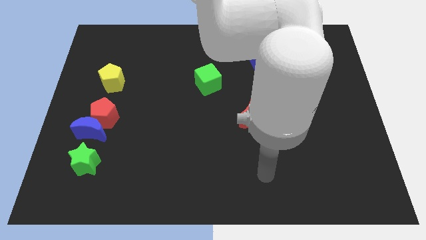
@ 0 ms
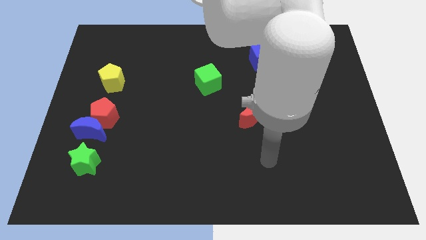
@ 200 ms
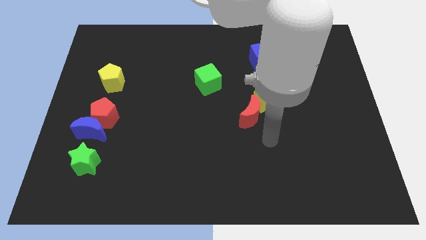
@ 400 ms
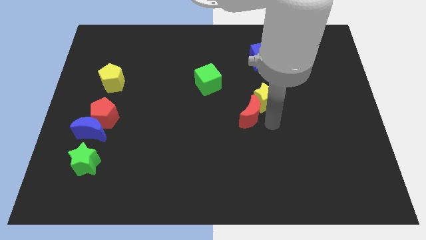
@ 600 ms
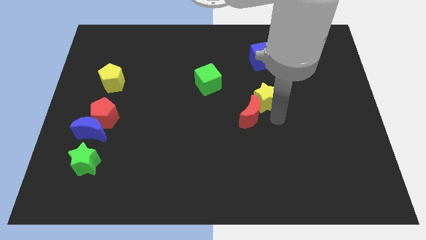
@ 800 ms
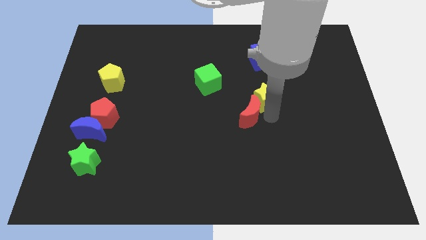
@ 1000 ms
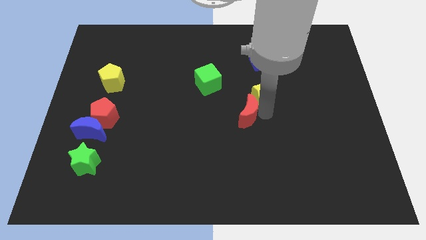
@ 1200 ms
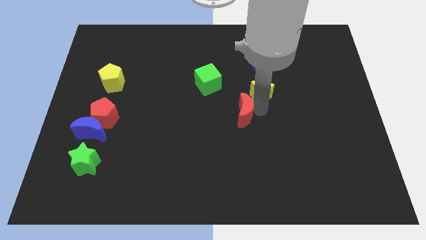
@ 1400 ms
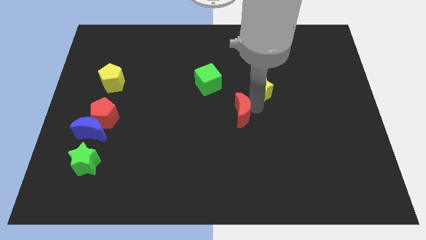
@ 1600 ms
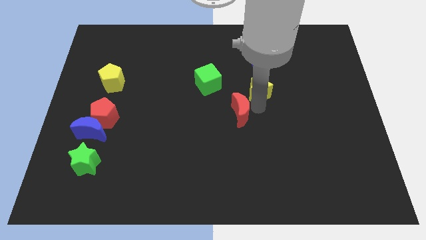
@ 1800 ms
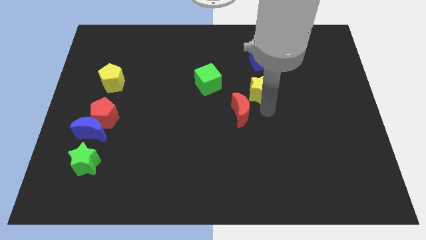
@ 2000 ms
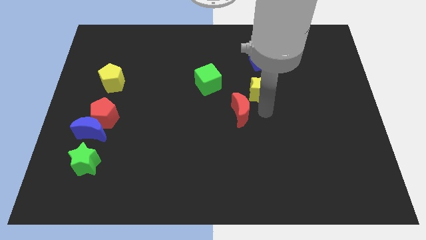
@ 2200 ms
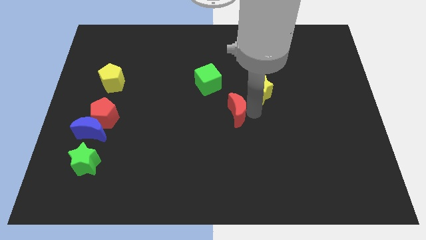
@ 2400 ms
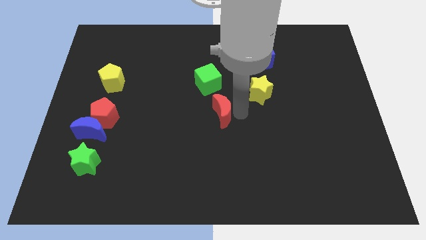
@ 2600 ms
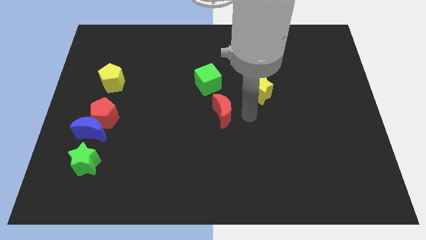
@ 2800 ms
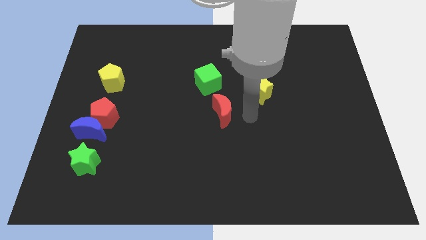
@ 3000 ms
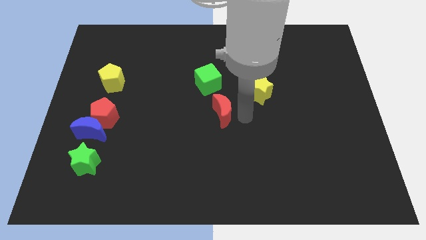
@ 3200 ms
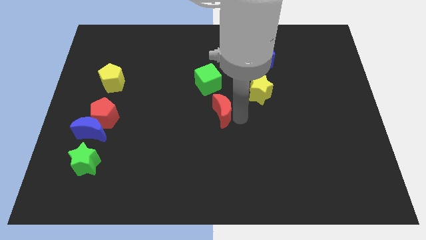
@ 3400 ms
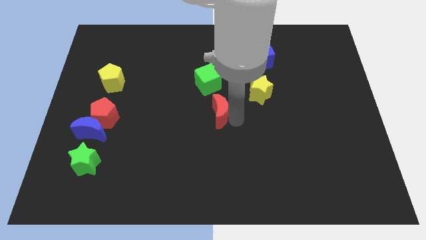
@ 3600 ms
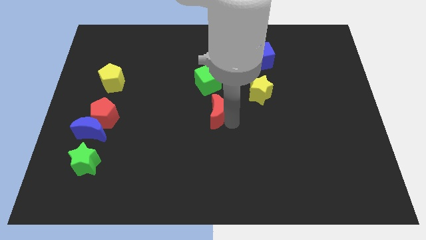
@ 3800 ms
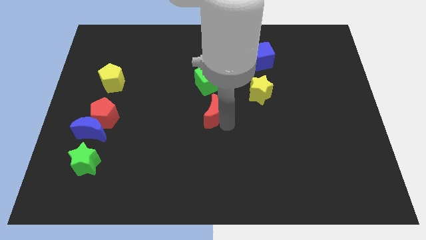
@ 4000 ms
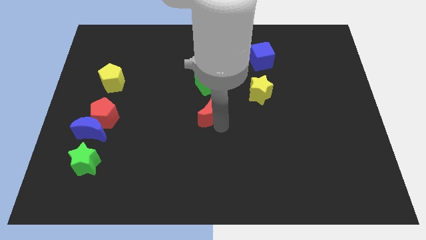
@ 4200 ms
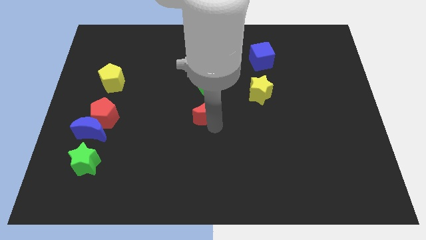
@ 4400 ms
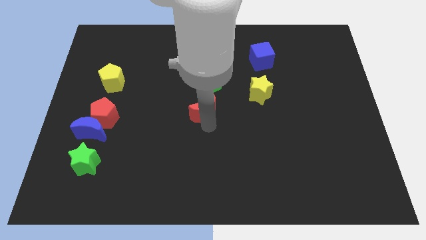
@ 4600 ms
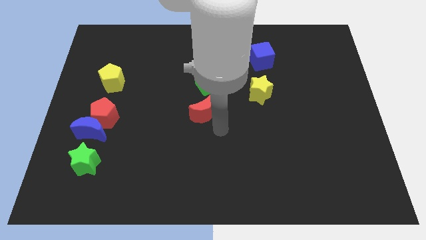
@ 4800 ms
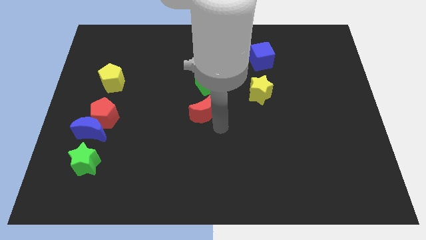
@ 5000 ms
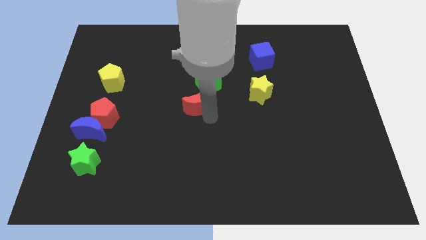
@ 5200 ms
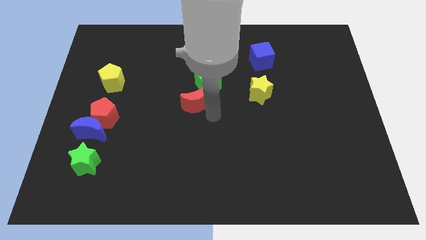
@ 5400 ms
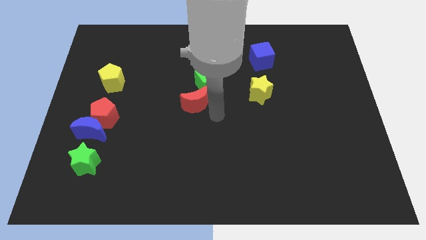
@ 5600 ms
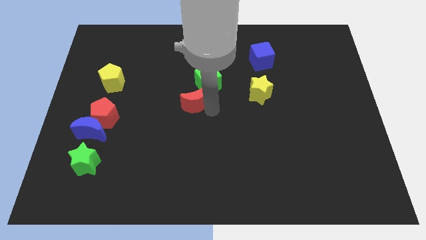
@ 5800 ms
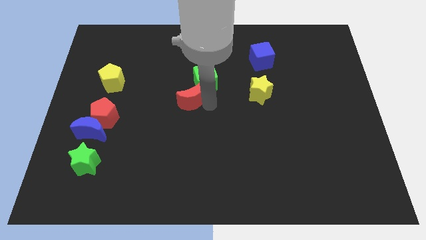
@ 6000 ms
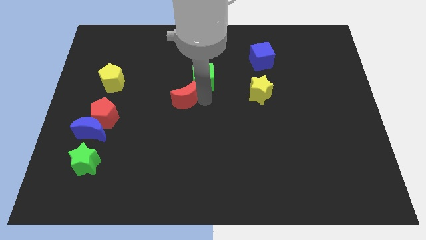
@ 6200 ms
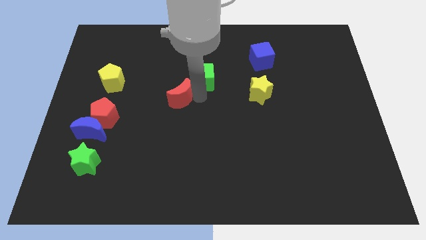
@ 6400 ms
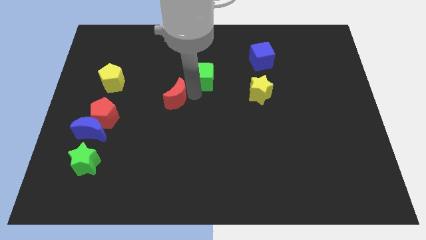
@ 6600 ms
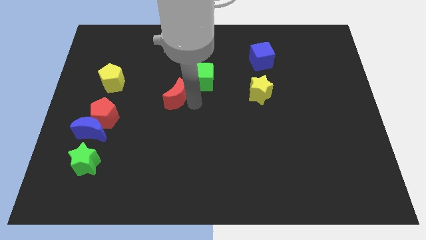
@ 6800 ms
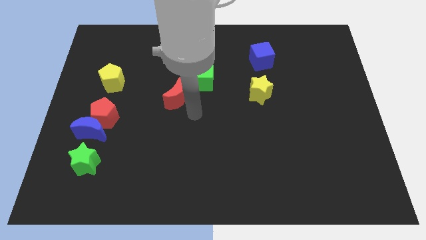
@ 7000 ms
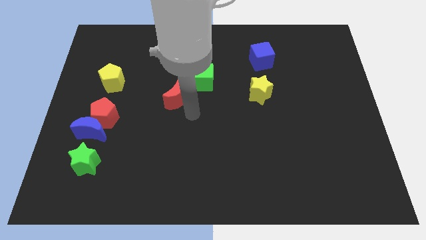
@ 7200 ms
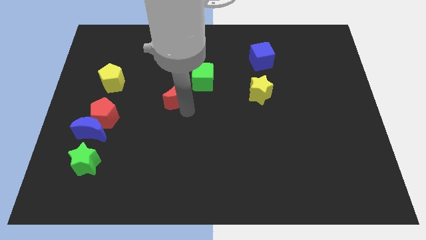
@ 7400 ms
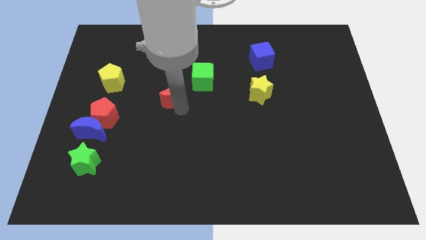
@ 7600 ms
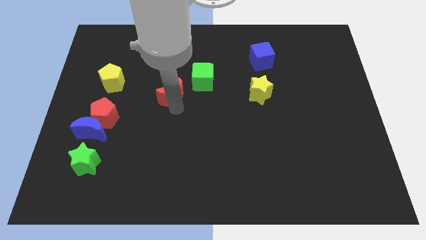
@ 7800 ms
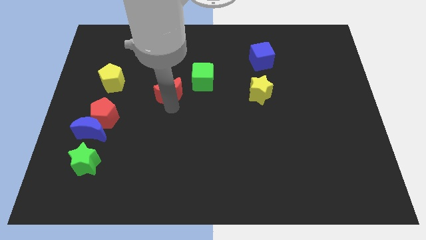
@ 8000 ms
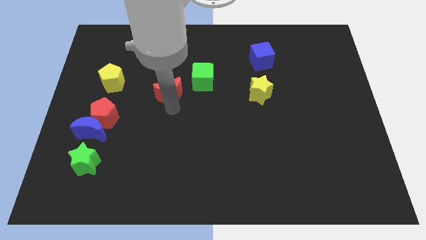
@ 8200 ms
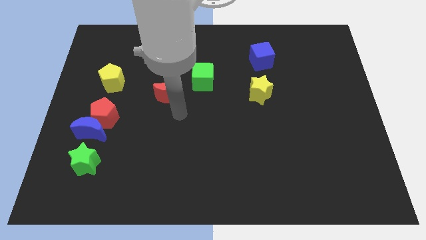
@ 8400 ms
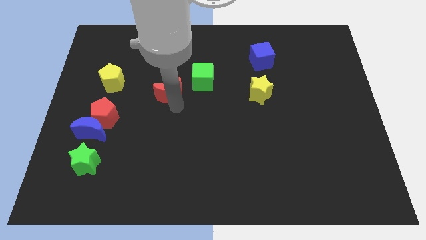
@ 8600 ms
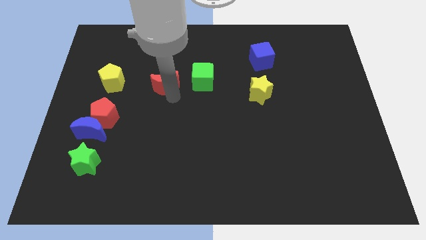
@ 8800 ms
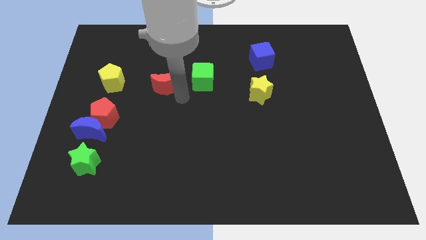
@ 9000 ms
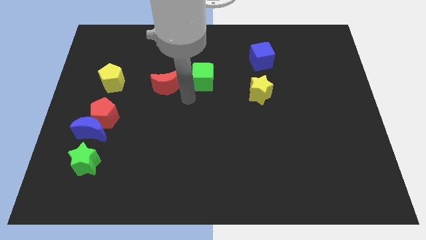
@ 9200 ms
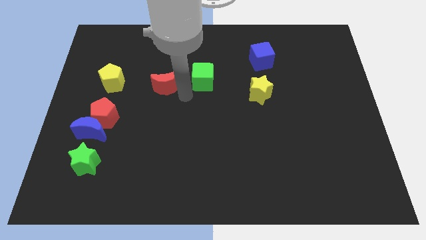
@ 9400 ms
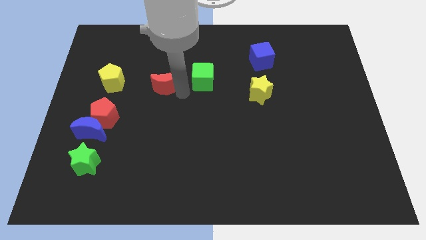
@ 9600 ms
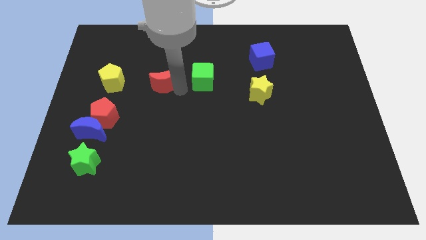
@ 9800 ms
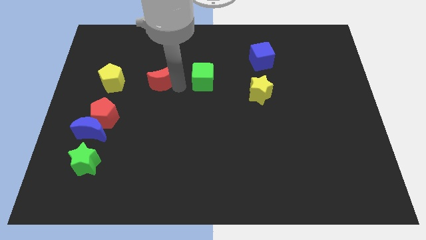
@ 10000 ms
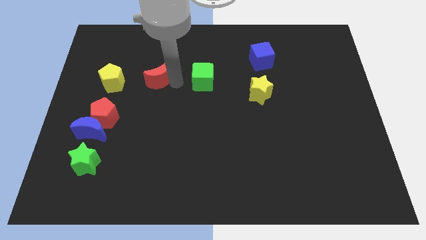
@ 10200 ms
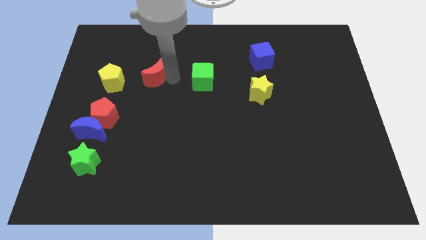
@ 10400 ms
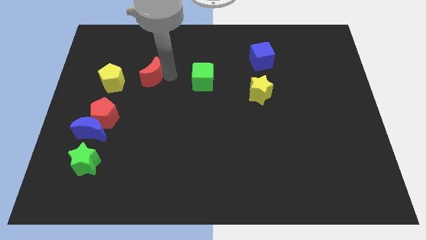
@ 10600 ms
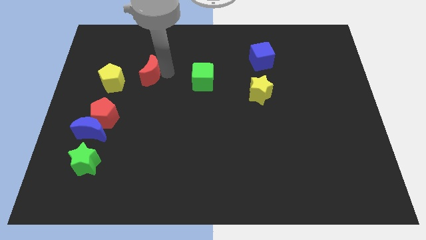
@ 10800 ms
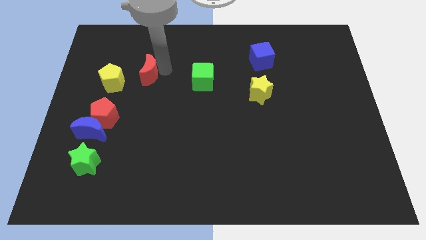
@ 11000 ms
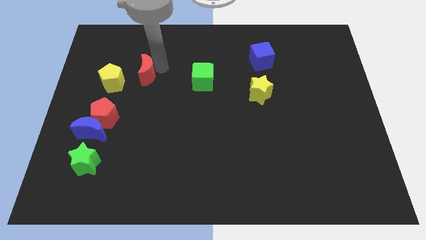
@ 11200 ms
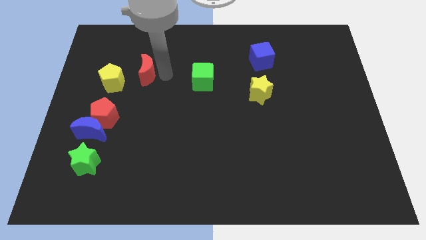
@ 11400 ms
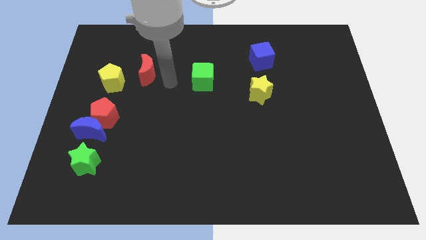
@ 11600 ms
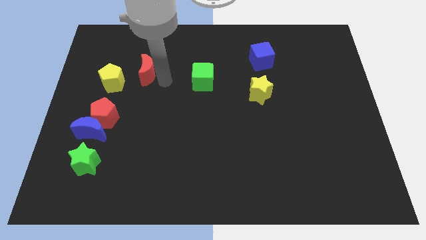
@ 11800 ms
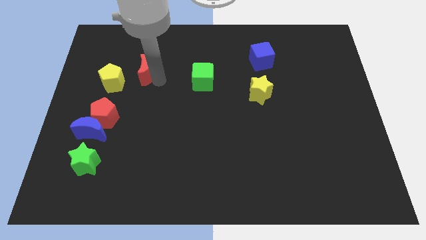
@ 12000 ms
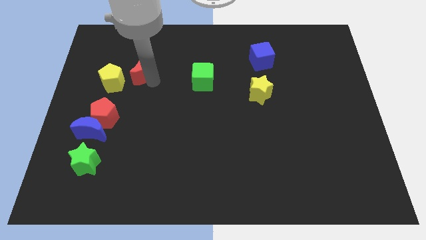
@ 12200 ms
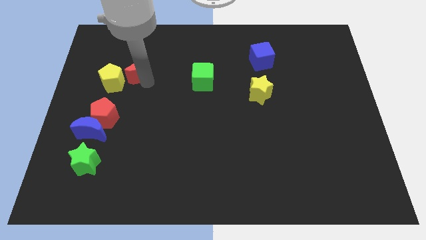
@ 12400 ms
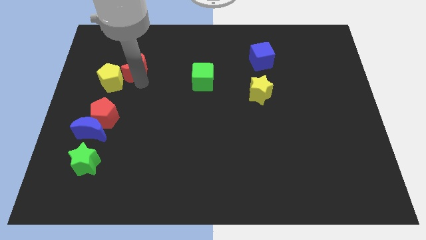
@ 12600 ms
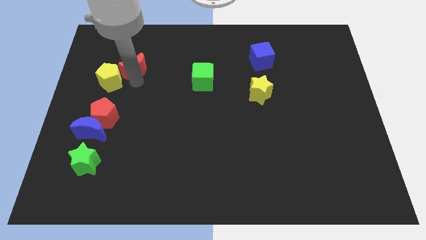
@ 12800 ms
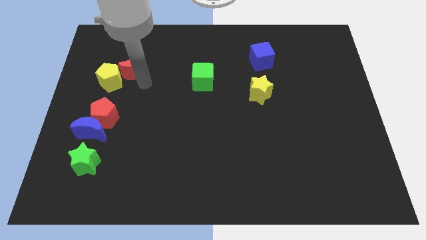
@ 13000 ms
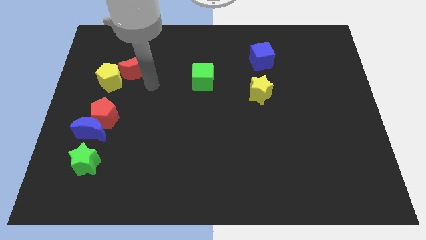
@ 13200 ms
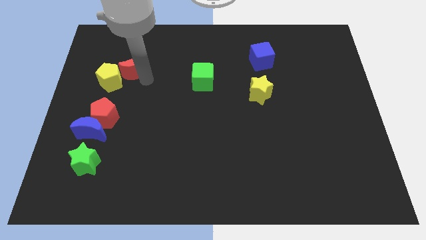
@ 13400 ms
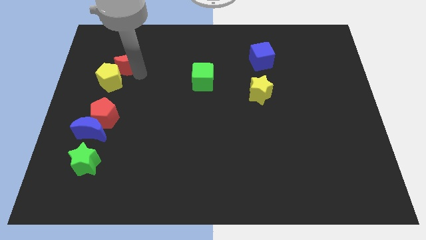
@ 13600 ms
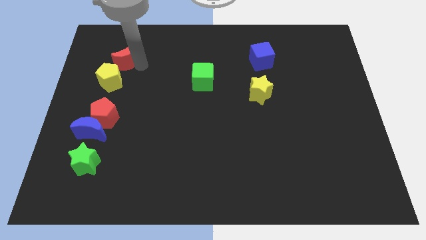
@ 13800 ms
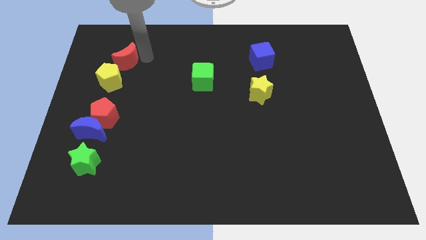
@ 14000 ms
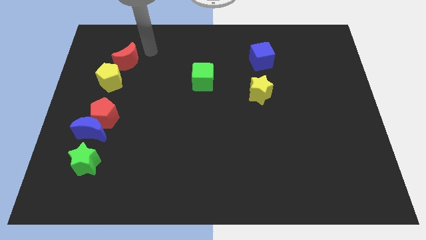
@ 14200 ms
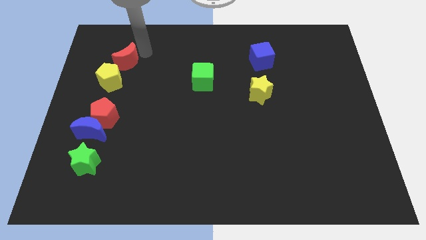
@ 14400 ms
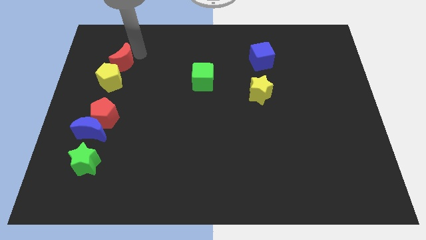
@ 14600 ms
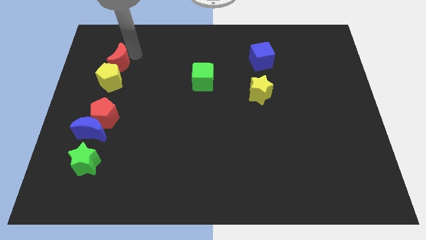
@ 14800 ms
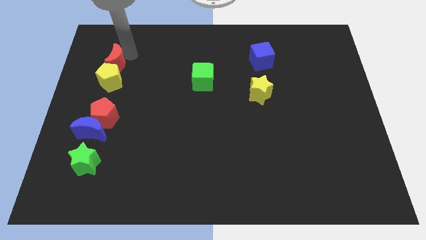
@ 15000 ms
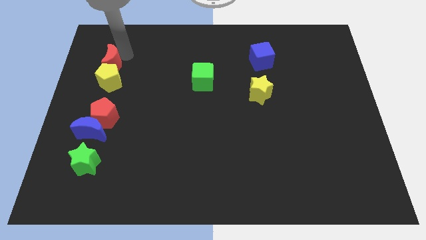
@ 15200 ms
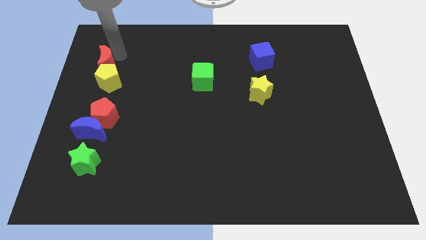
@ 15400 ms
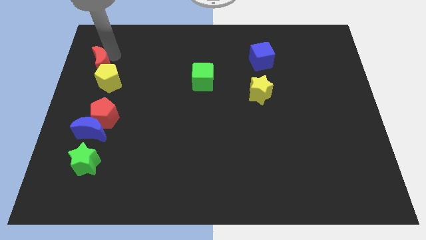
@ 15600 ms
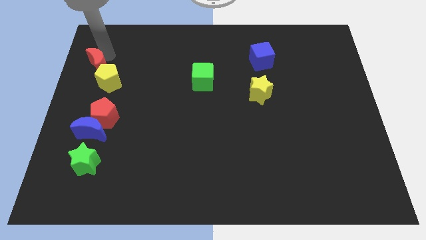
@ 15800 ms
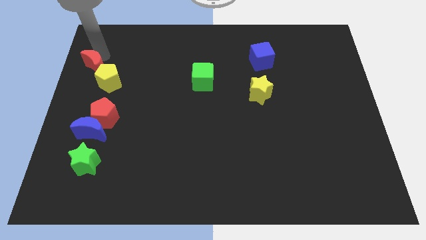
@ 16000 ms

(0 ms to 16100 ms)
slide the red moon to the left side of the board
